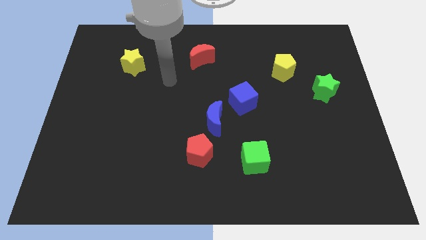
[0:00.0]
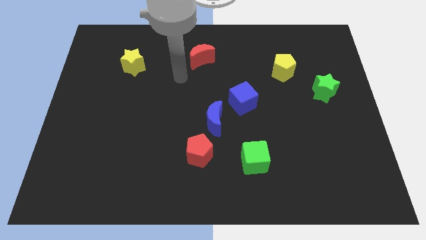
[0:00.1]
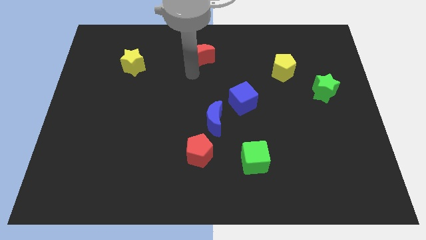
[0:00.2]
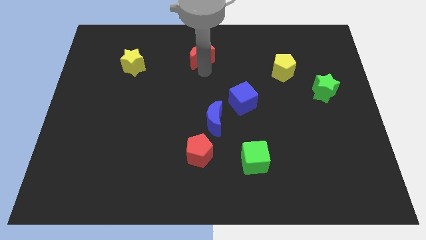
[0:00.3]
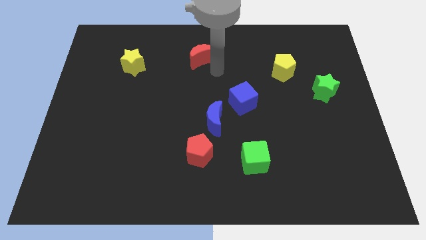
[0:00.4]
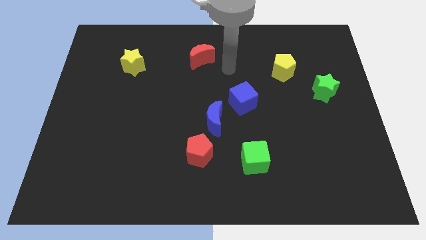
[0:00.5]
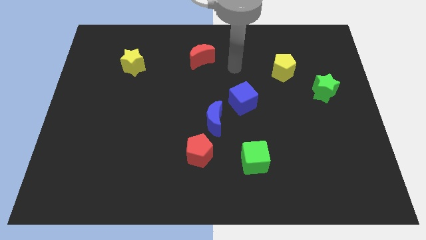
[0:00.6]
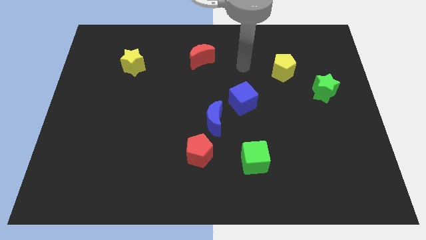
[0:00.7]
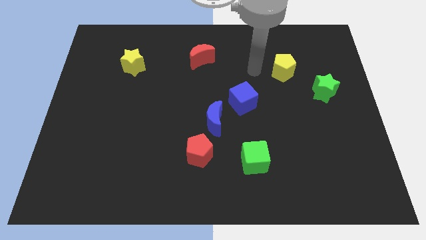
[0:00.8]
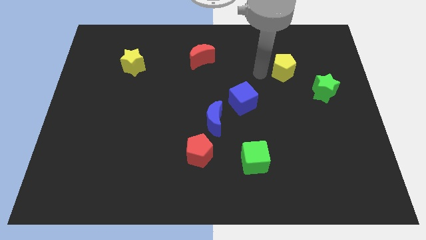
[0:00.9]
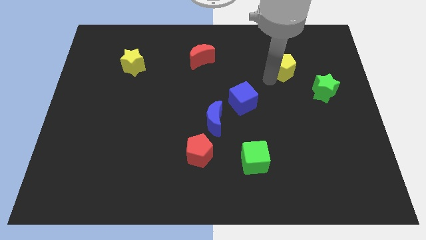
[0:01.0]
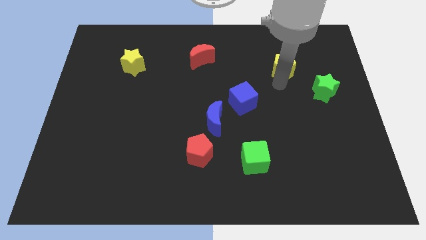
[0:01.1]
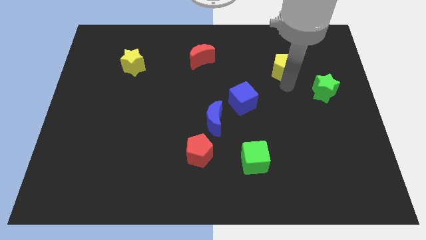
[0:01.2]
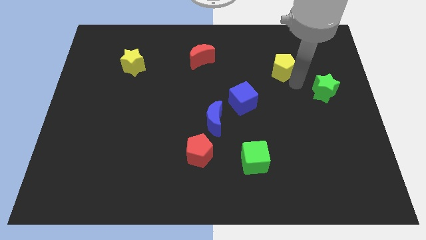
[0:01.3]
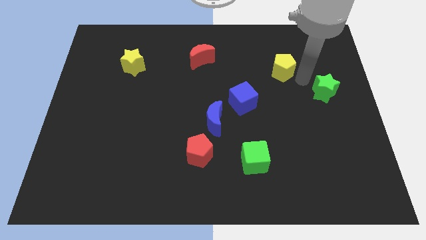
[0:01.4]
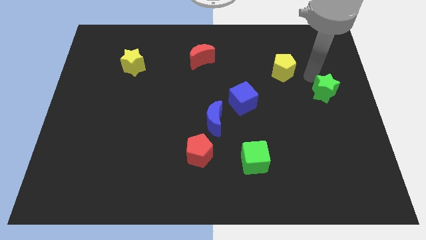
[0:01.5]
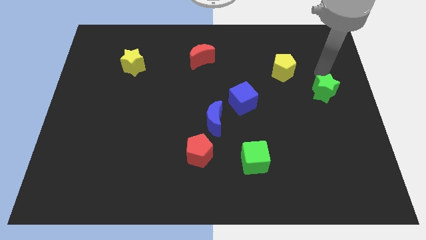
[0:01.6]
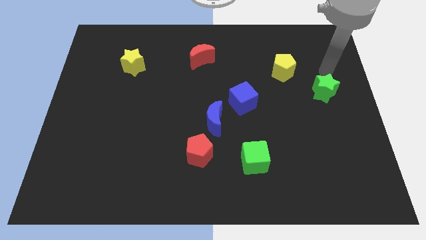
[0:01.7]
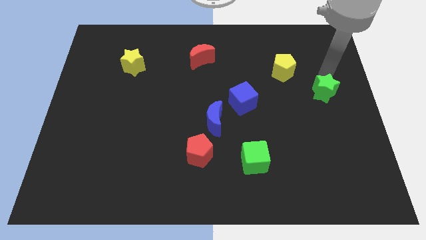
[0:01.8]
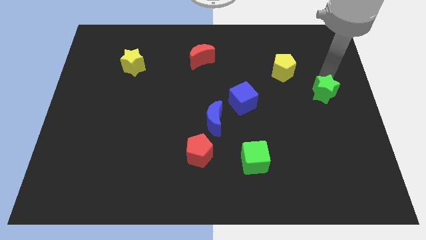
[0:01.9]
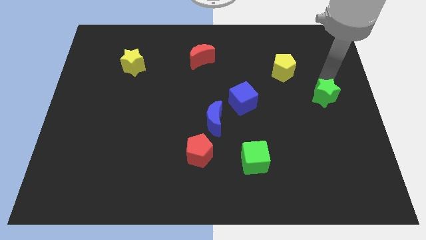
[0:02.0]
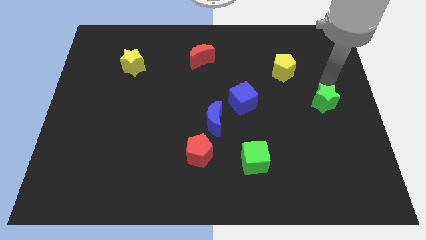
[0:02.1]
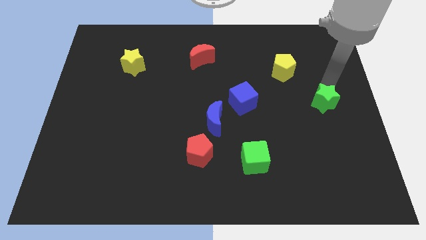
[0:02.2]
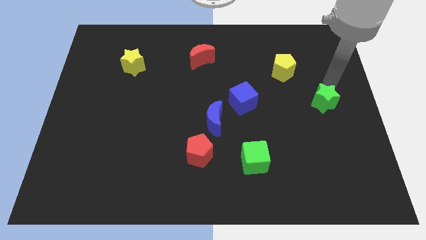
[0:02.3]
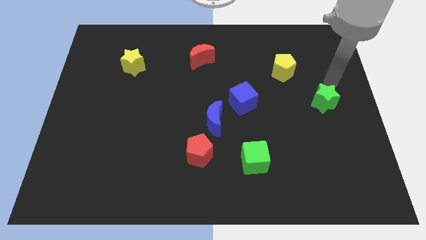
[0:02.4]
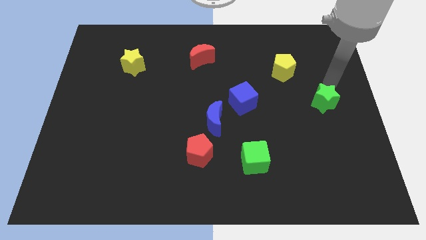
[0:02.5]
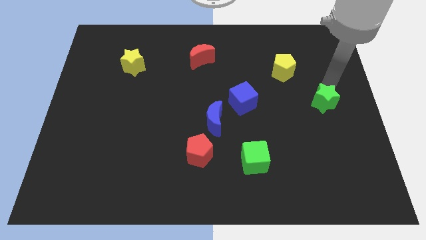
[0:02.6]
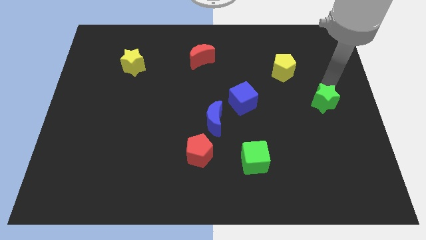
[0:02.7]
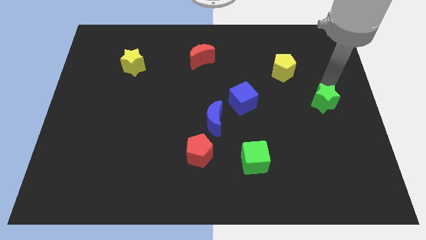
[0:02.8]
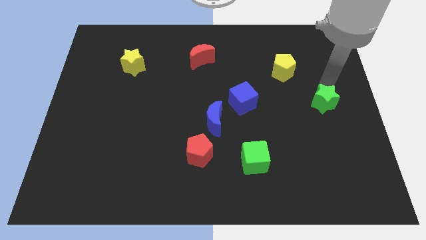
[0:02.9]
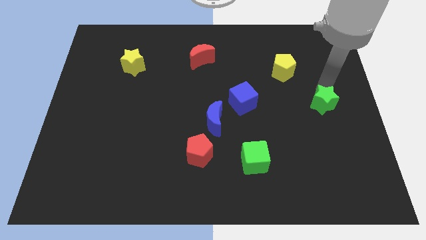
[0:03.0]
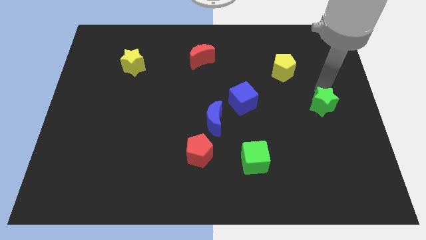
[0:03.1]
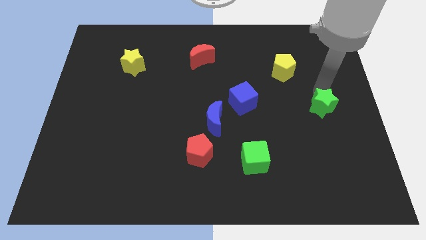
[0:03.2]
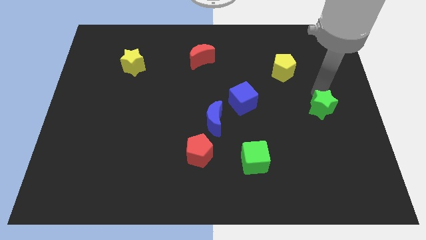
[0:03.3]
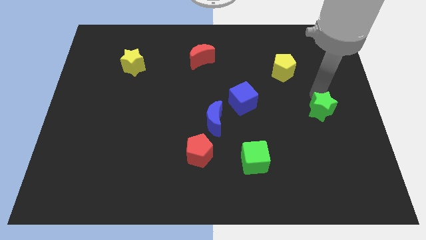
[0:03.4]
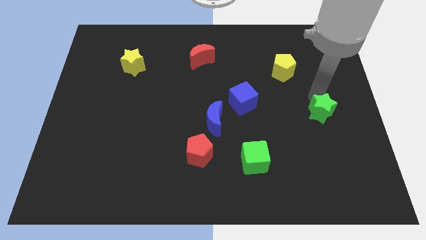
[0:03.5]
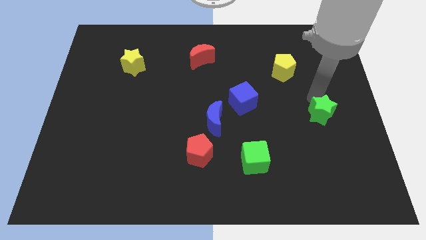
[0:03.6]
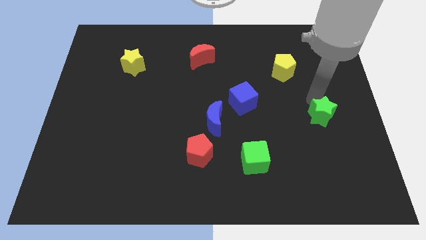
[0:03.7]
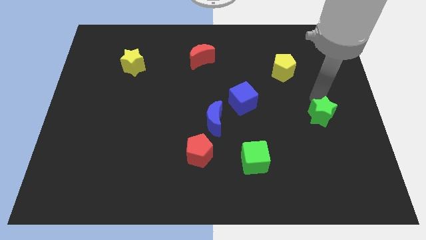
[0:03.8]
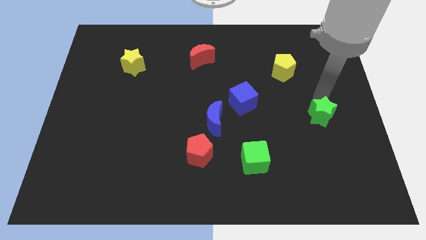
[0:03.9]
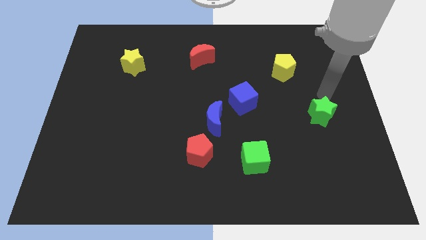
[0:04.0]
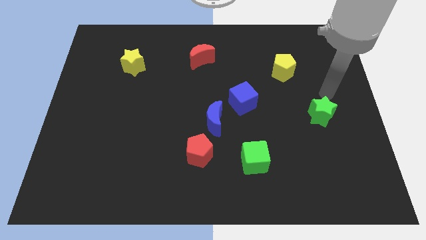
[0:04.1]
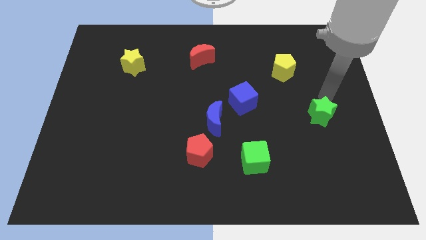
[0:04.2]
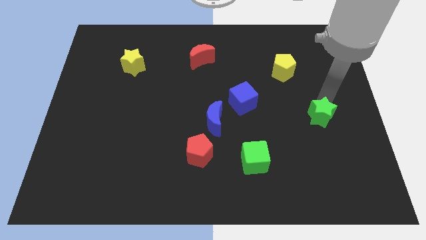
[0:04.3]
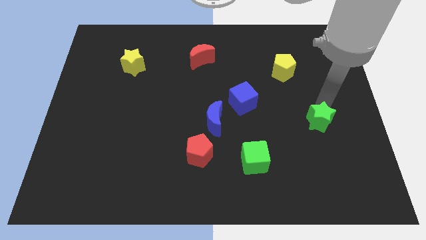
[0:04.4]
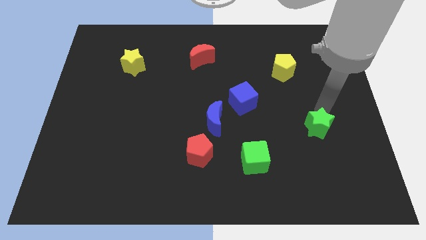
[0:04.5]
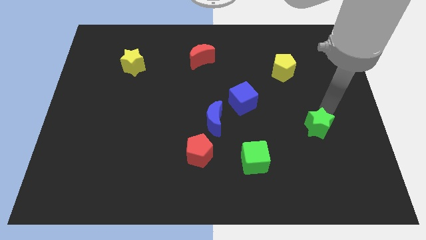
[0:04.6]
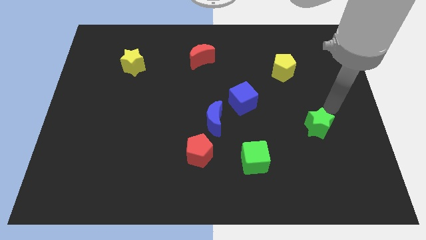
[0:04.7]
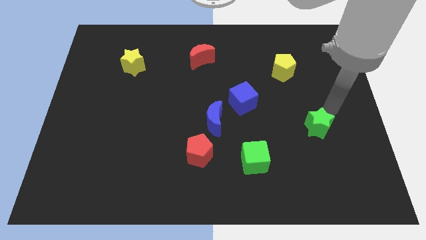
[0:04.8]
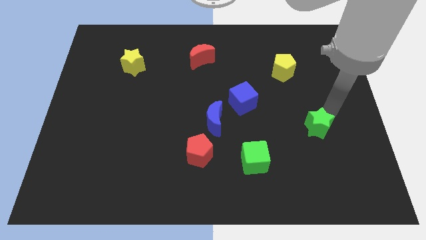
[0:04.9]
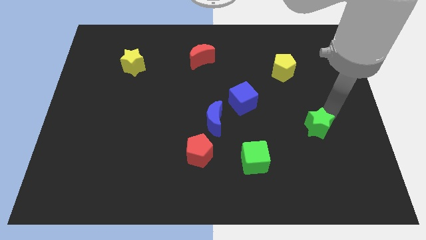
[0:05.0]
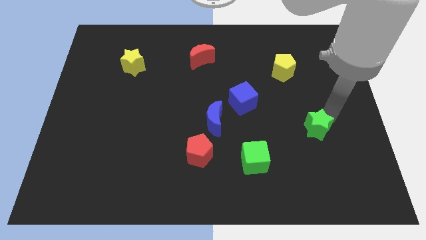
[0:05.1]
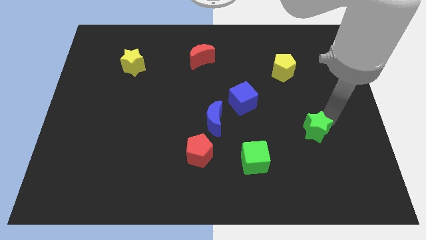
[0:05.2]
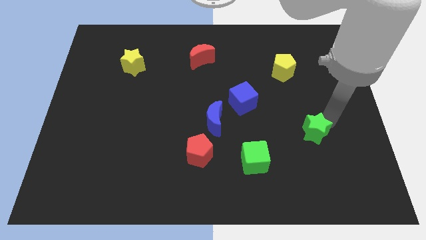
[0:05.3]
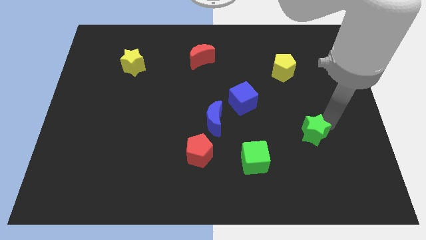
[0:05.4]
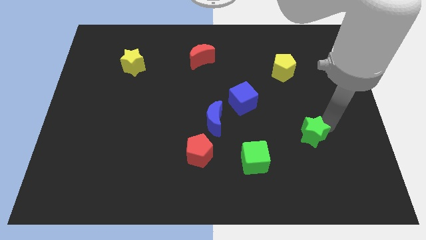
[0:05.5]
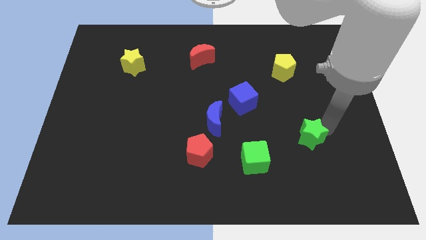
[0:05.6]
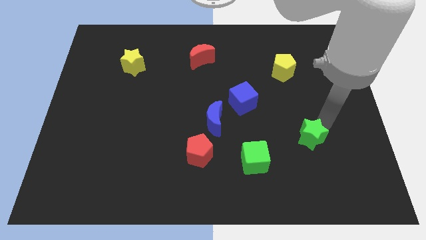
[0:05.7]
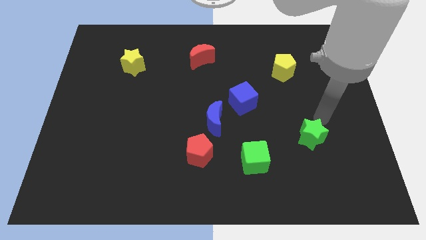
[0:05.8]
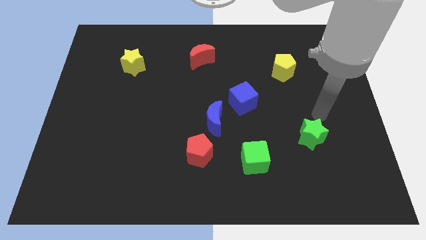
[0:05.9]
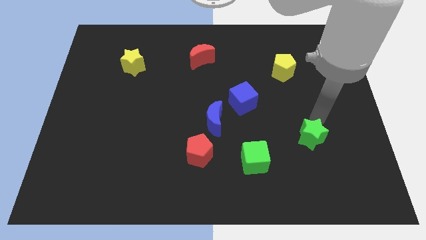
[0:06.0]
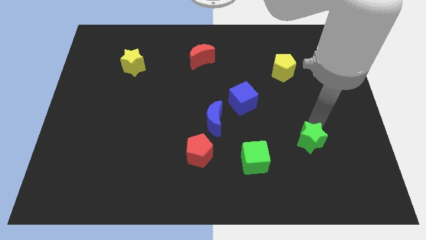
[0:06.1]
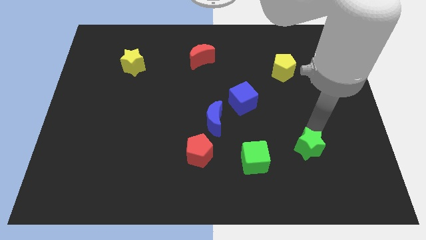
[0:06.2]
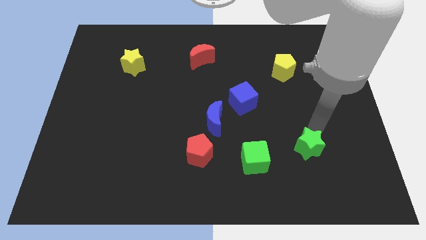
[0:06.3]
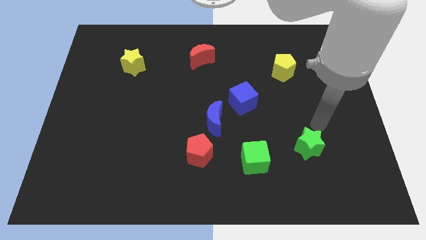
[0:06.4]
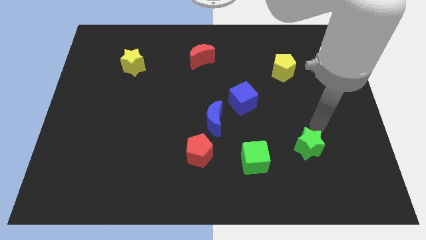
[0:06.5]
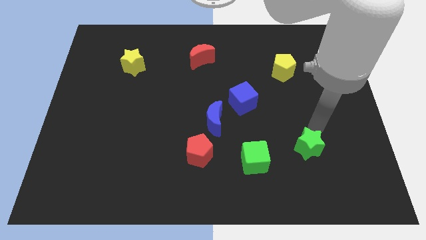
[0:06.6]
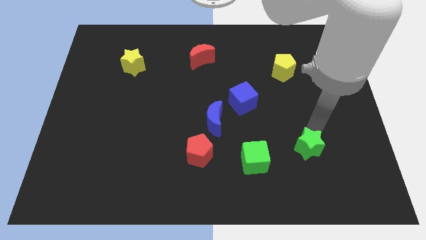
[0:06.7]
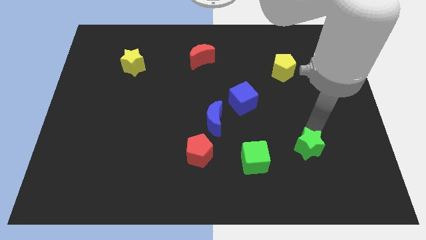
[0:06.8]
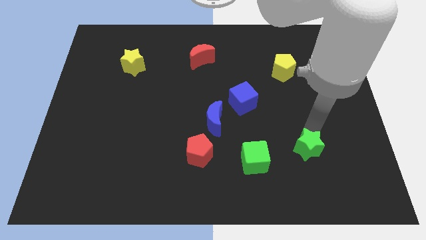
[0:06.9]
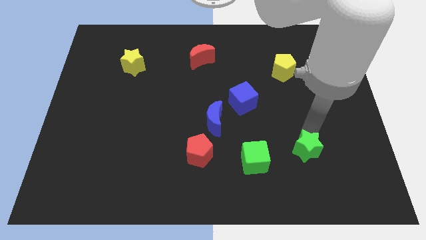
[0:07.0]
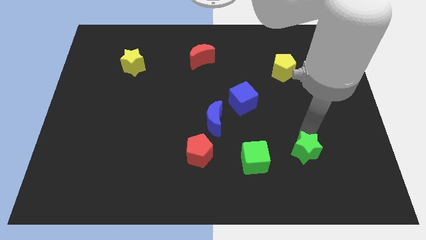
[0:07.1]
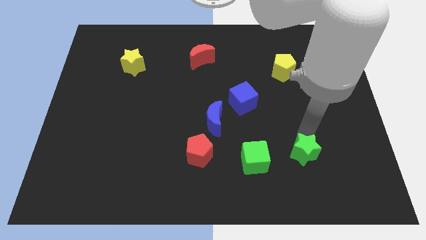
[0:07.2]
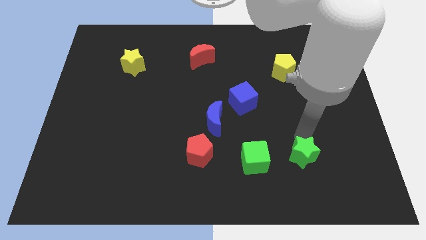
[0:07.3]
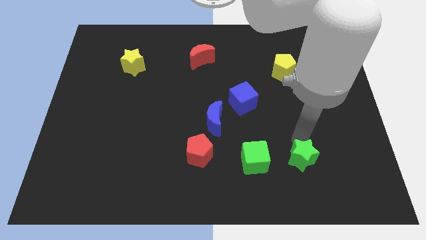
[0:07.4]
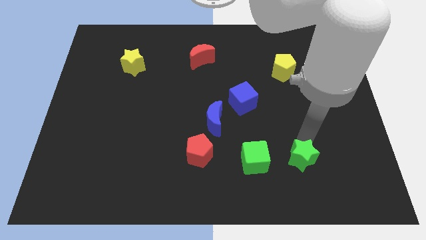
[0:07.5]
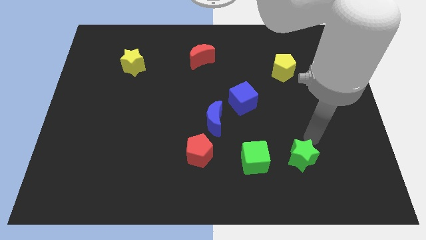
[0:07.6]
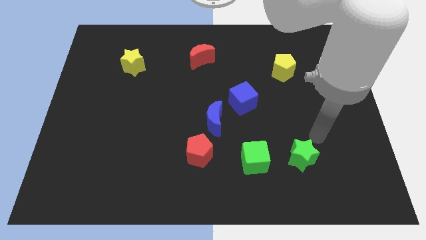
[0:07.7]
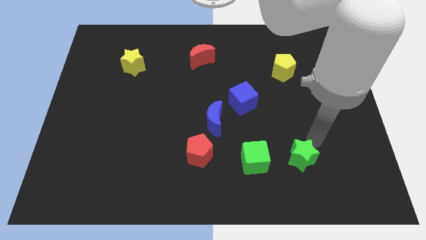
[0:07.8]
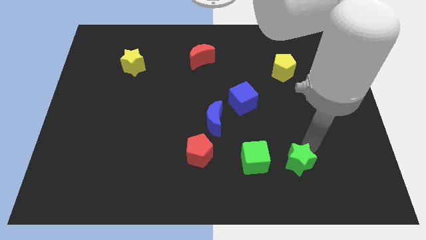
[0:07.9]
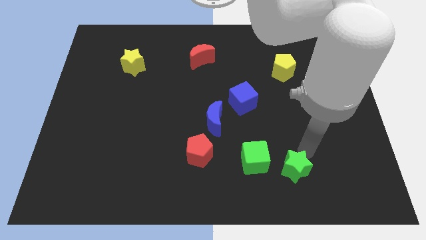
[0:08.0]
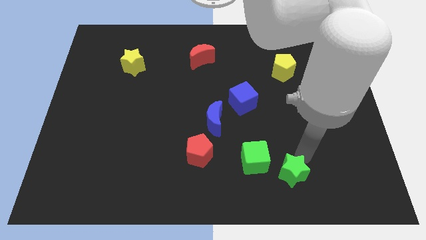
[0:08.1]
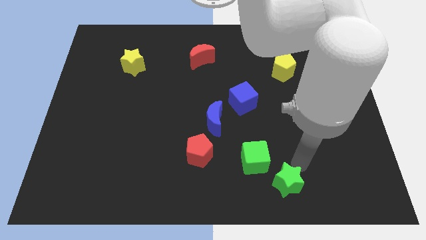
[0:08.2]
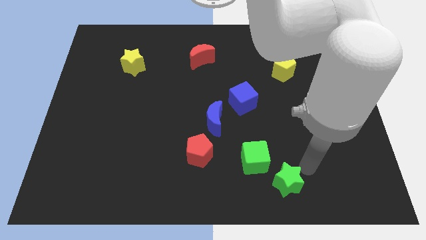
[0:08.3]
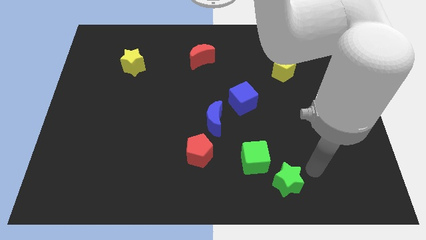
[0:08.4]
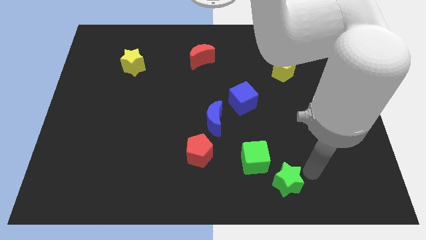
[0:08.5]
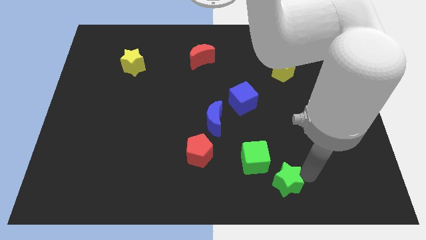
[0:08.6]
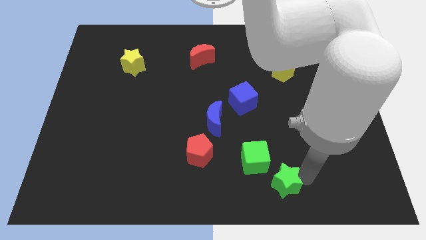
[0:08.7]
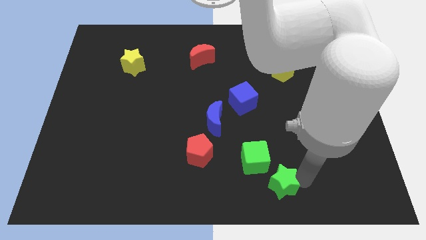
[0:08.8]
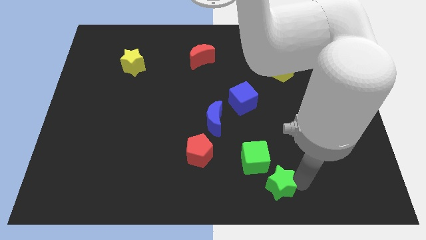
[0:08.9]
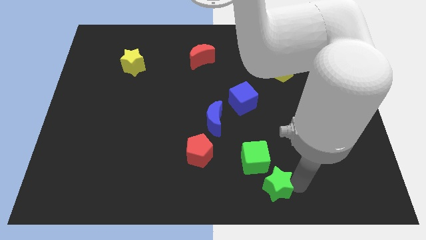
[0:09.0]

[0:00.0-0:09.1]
push the green star to the bottom
